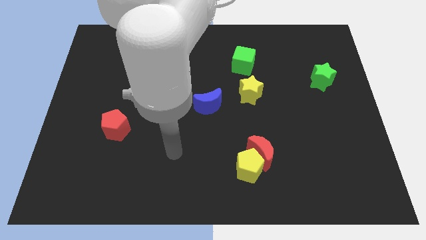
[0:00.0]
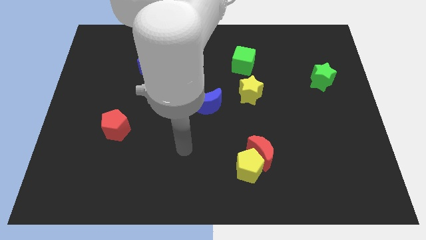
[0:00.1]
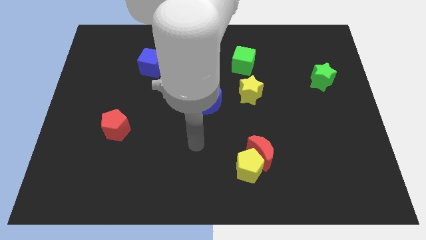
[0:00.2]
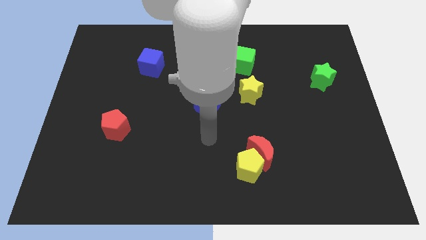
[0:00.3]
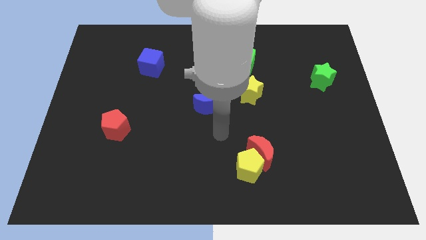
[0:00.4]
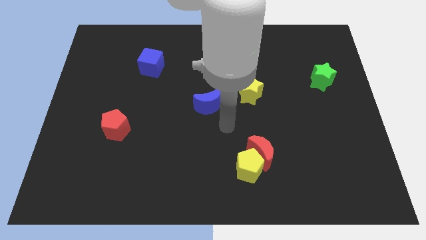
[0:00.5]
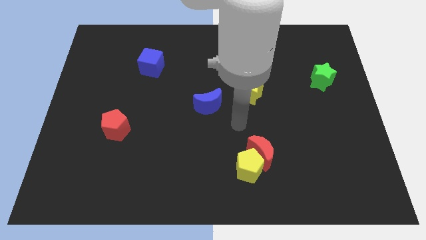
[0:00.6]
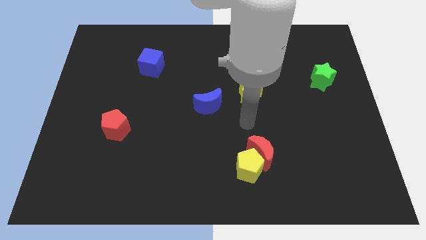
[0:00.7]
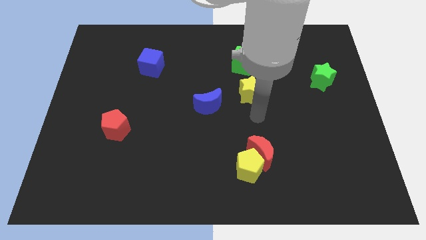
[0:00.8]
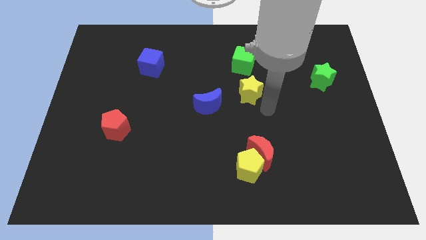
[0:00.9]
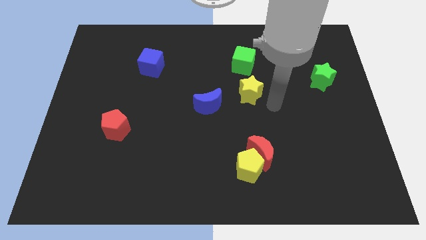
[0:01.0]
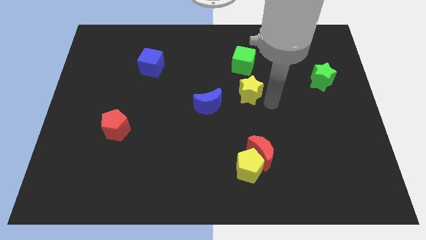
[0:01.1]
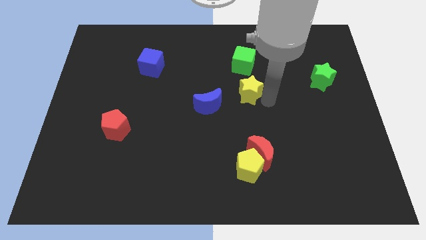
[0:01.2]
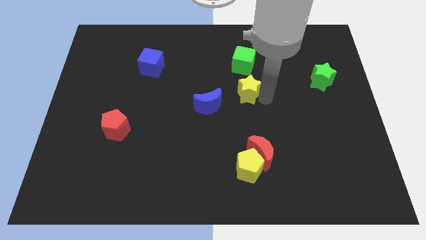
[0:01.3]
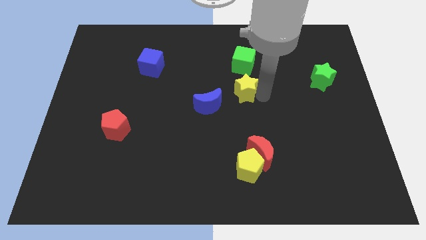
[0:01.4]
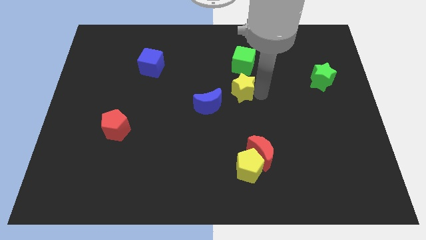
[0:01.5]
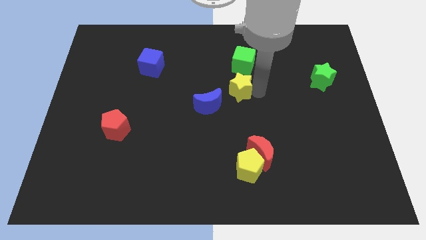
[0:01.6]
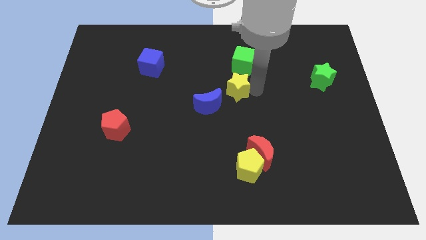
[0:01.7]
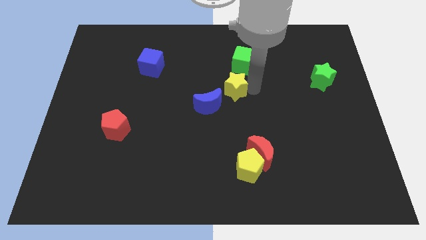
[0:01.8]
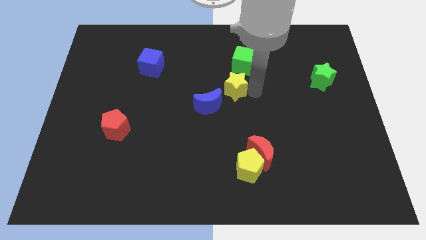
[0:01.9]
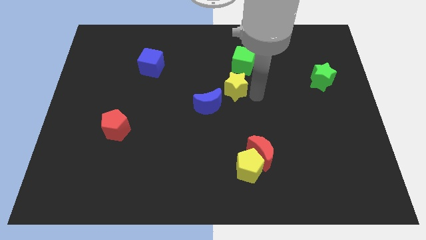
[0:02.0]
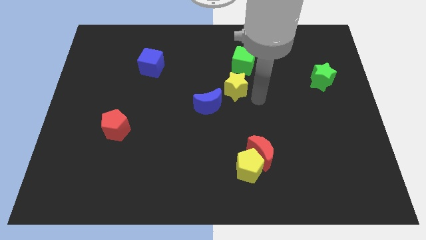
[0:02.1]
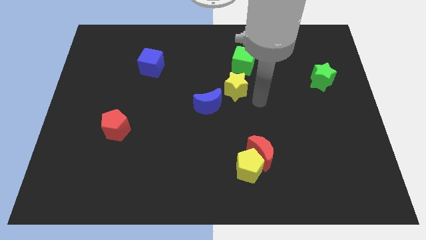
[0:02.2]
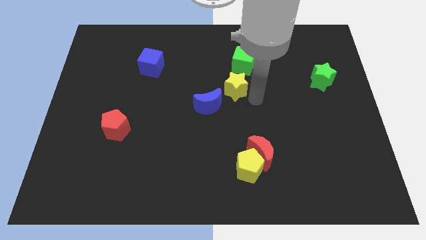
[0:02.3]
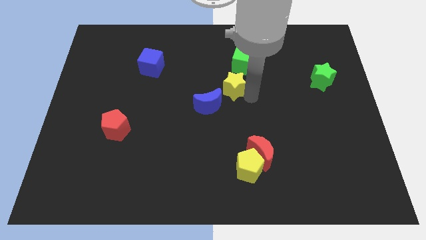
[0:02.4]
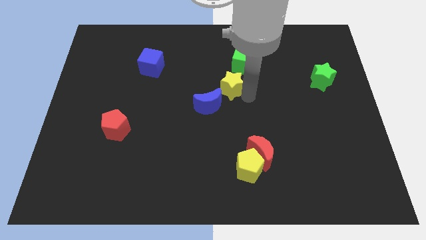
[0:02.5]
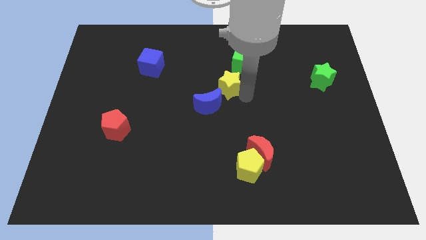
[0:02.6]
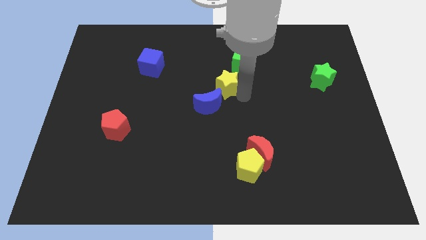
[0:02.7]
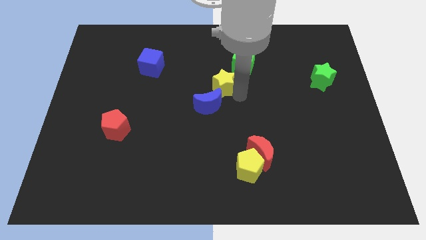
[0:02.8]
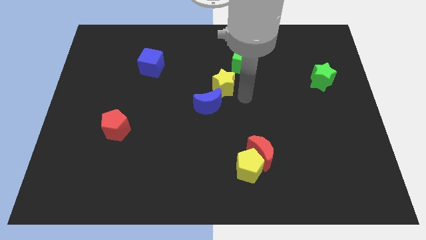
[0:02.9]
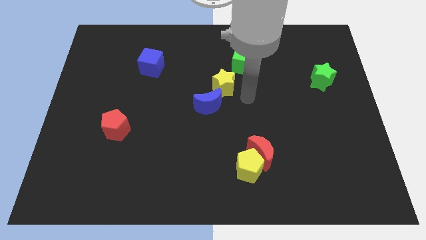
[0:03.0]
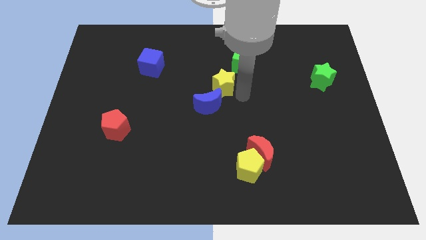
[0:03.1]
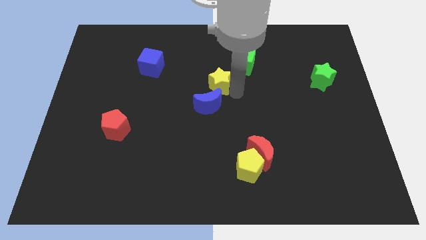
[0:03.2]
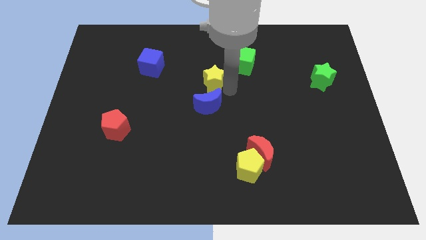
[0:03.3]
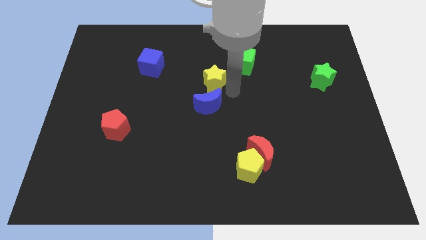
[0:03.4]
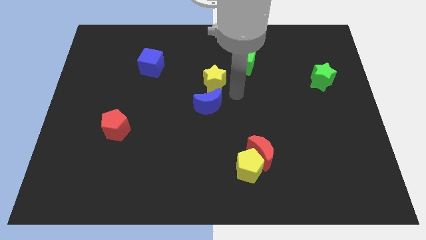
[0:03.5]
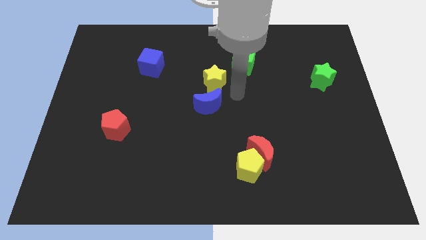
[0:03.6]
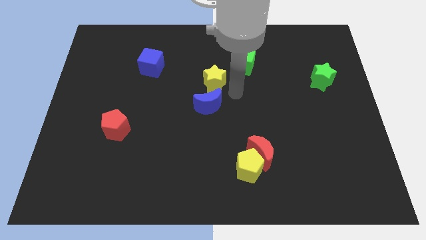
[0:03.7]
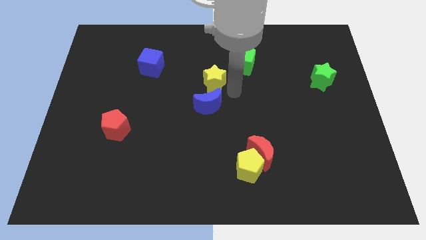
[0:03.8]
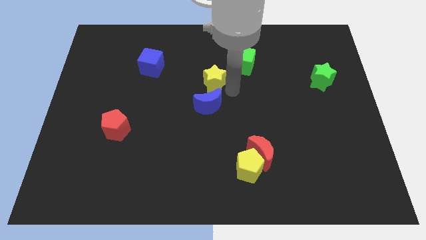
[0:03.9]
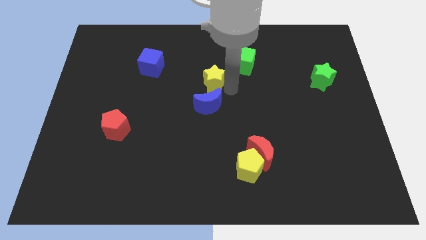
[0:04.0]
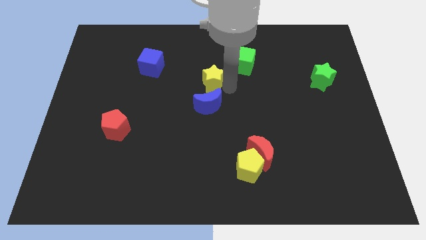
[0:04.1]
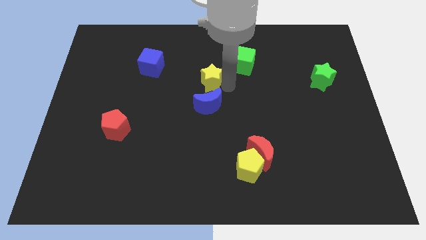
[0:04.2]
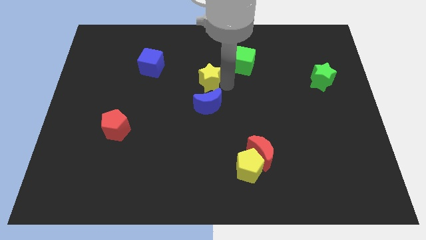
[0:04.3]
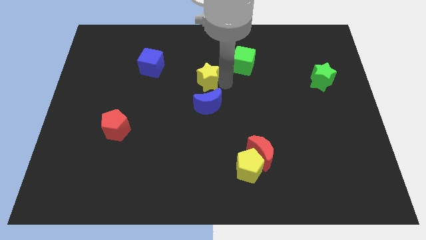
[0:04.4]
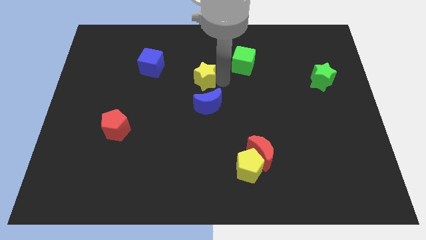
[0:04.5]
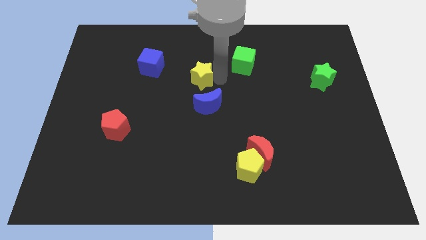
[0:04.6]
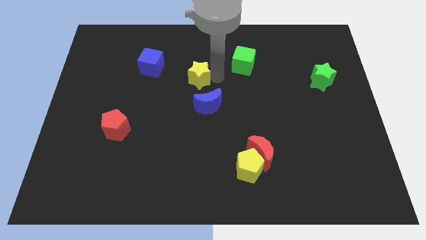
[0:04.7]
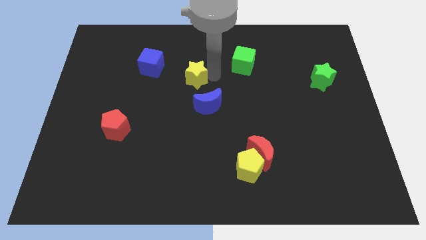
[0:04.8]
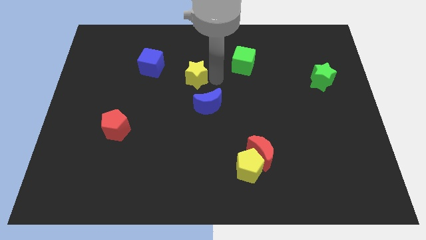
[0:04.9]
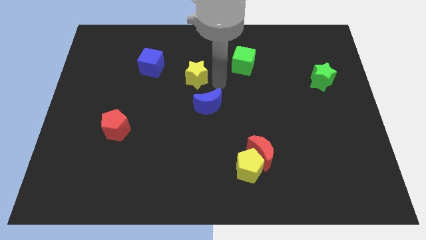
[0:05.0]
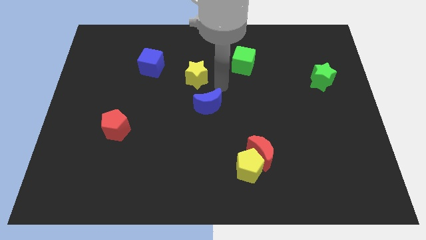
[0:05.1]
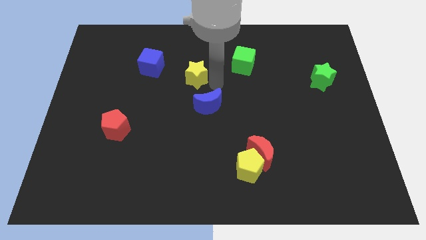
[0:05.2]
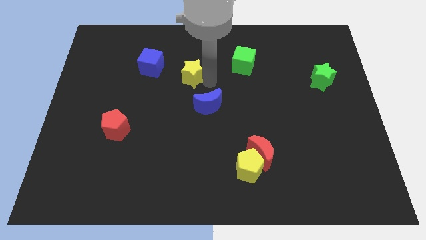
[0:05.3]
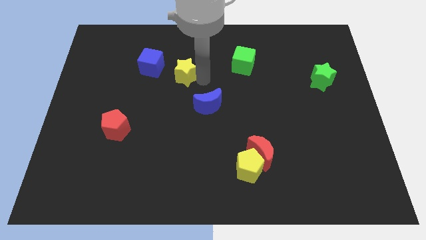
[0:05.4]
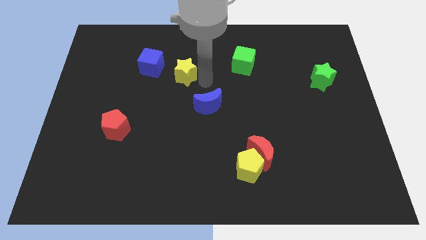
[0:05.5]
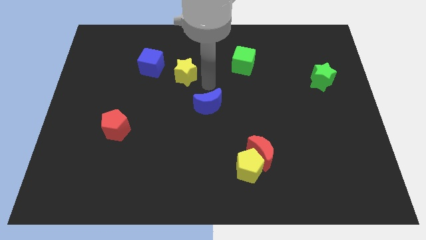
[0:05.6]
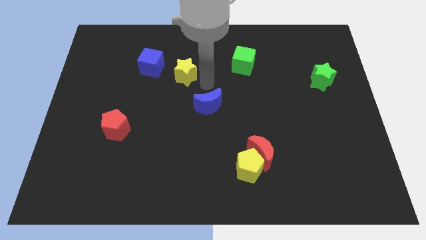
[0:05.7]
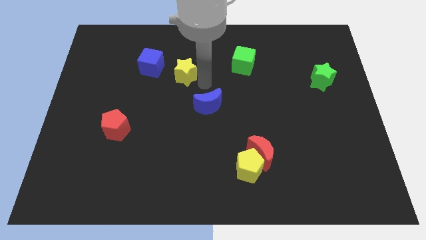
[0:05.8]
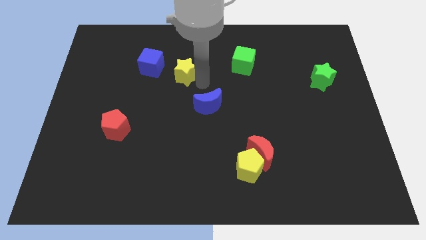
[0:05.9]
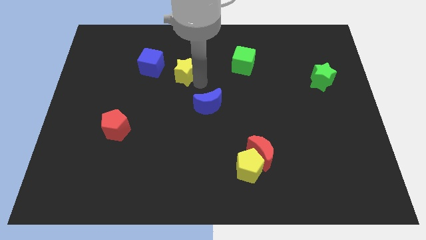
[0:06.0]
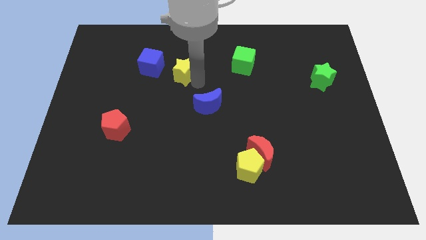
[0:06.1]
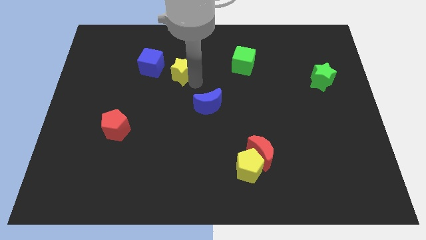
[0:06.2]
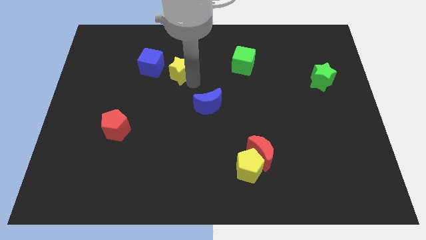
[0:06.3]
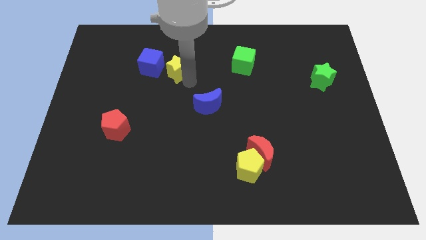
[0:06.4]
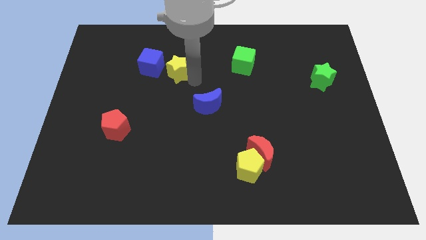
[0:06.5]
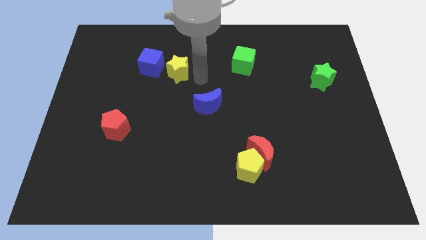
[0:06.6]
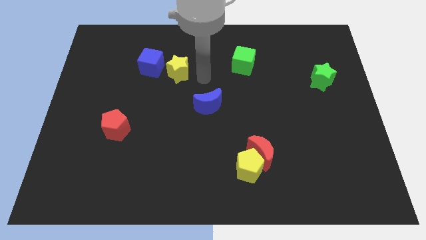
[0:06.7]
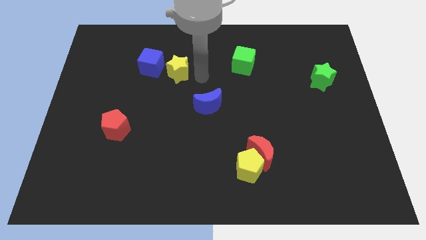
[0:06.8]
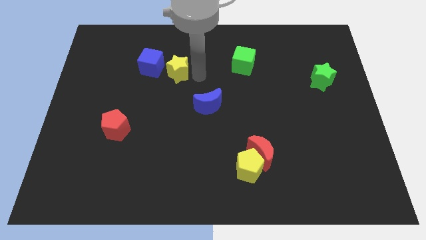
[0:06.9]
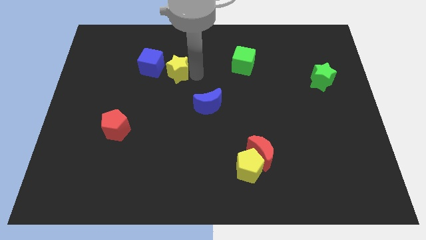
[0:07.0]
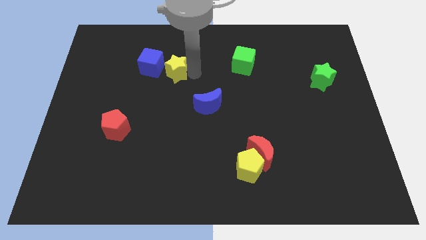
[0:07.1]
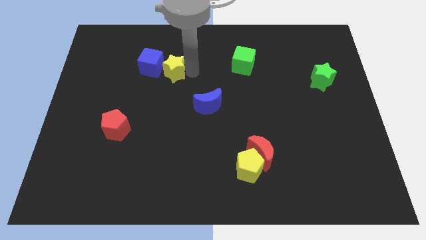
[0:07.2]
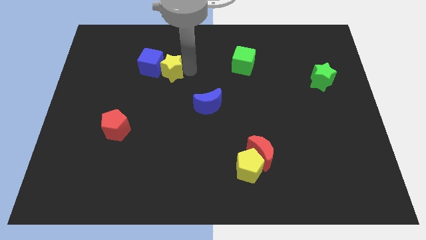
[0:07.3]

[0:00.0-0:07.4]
push the yellow star next to the blue cube
